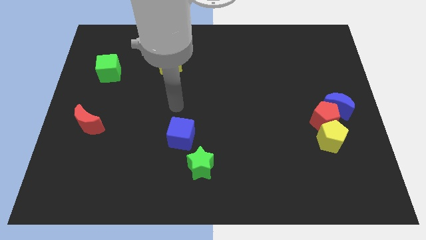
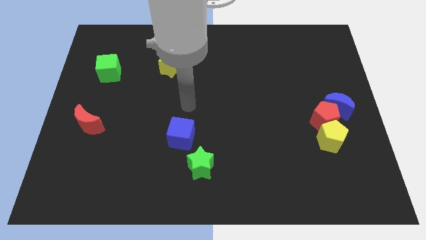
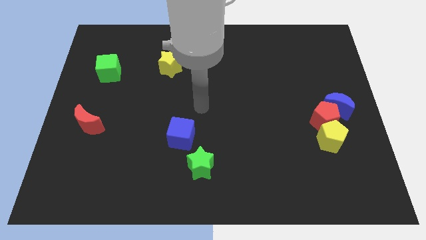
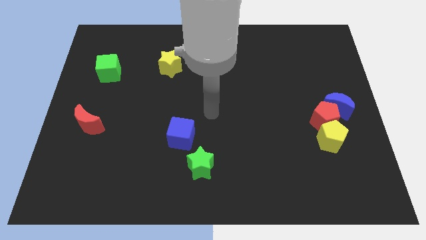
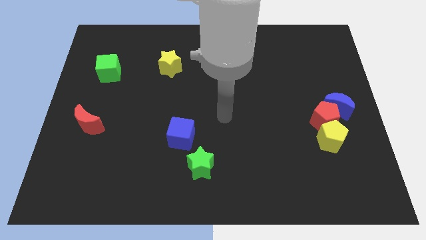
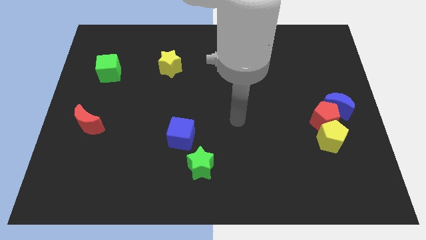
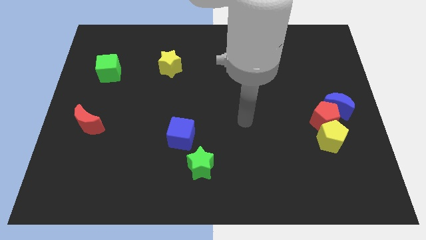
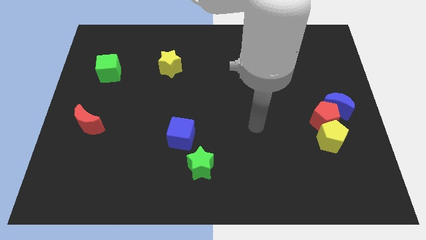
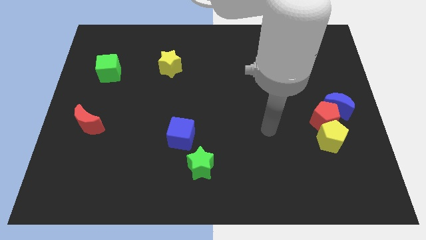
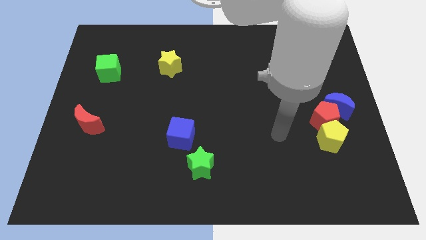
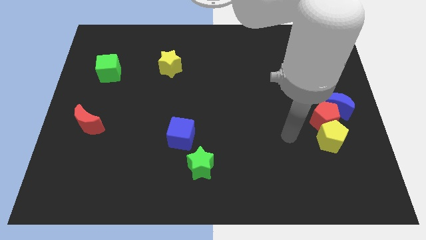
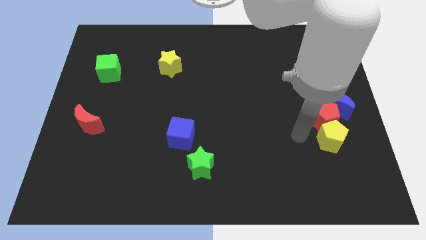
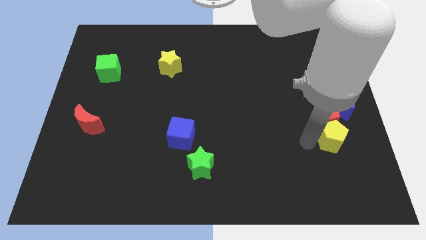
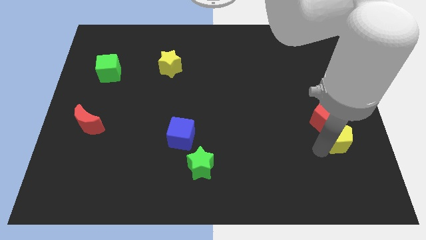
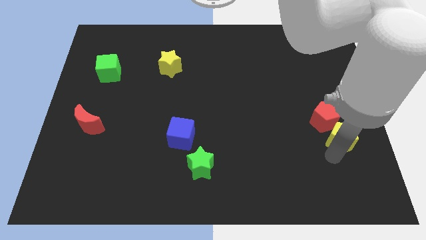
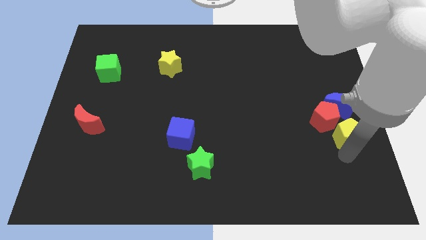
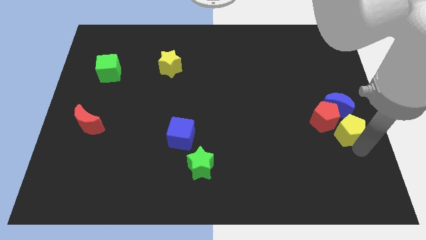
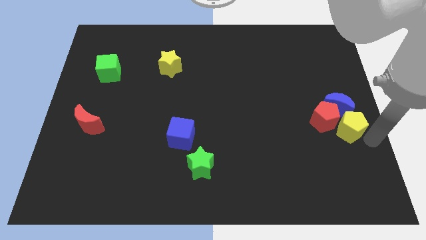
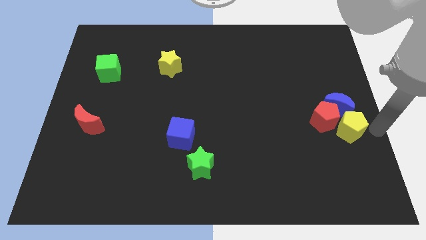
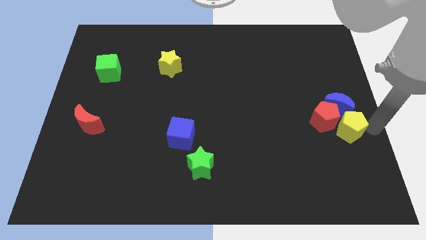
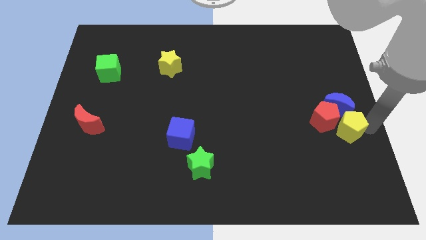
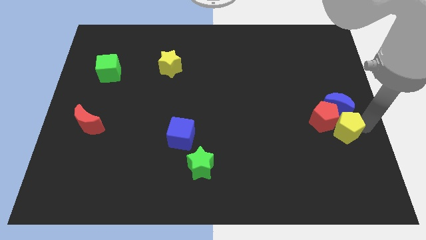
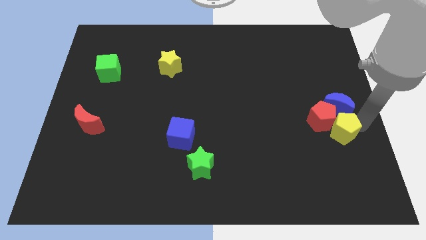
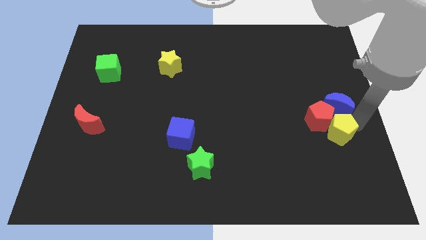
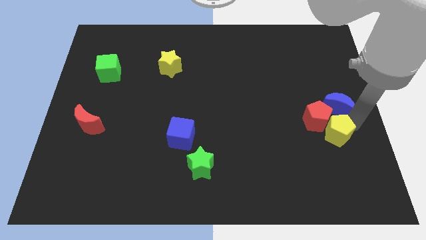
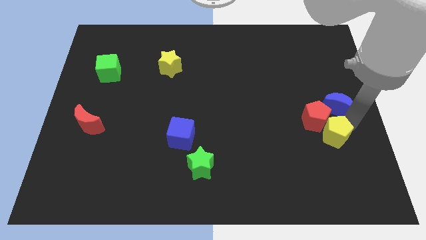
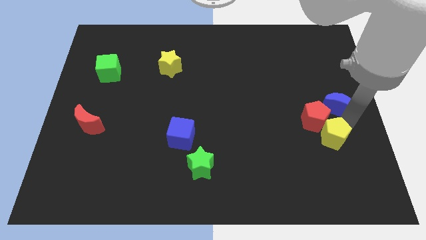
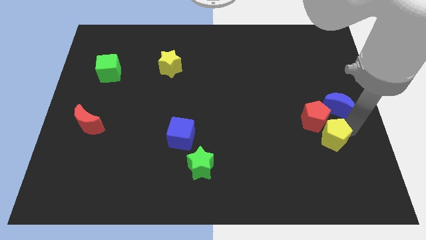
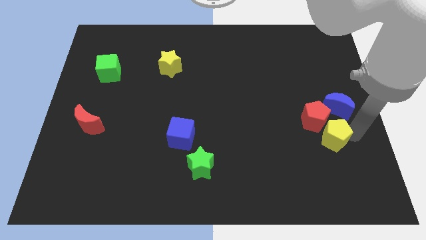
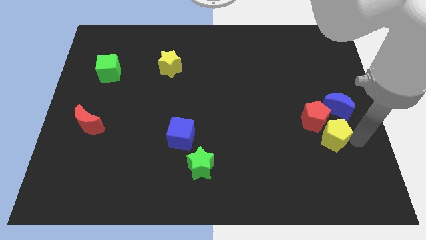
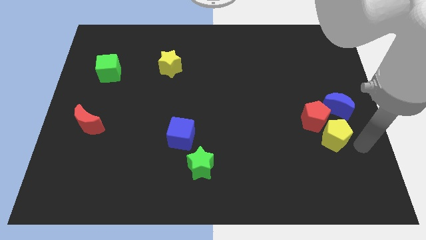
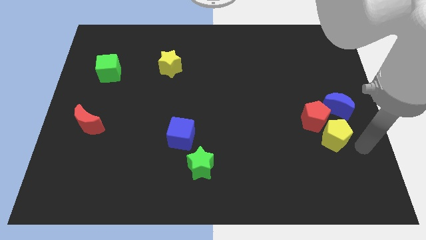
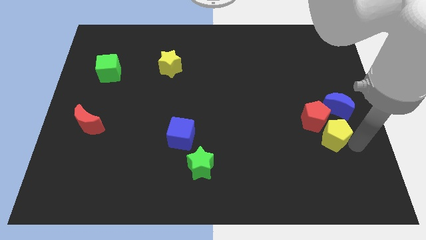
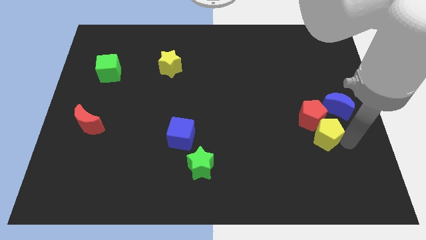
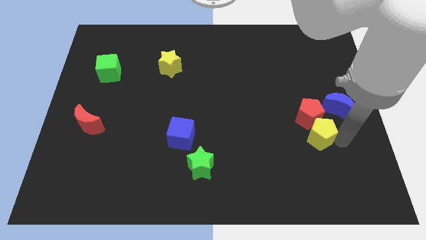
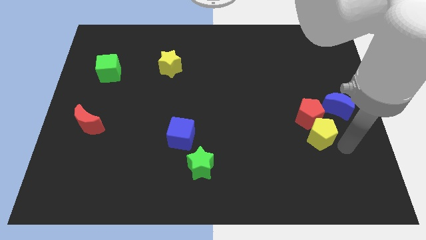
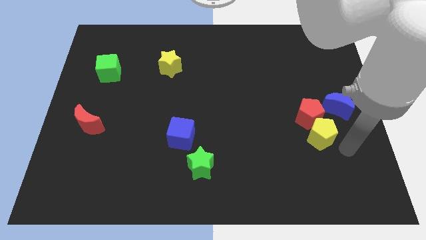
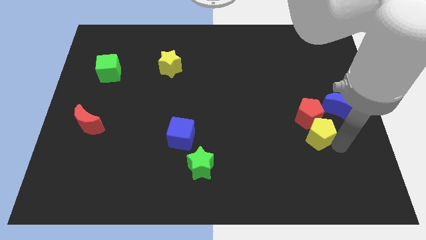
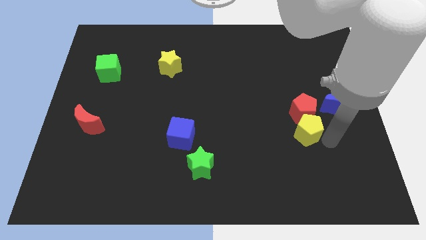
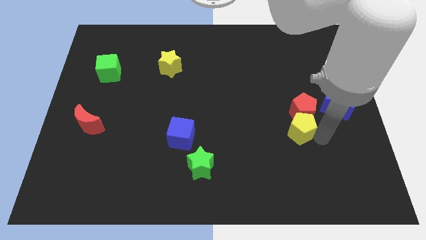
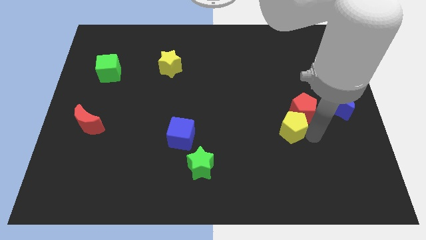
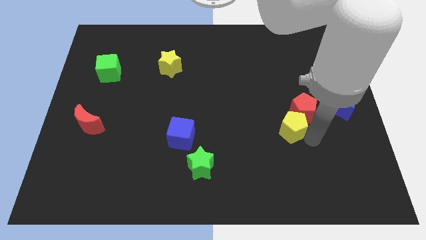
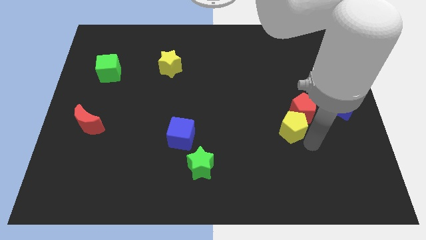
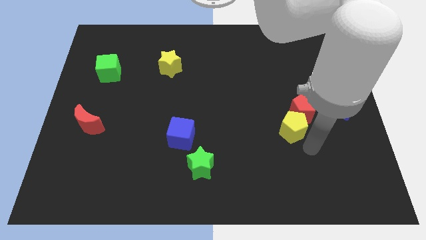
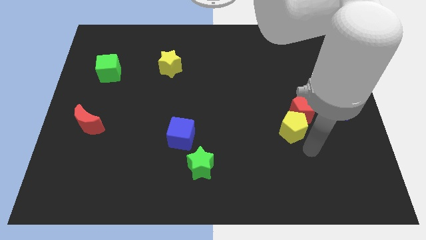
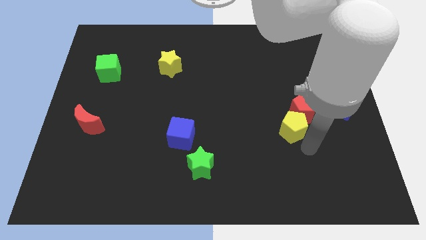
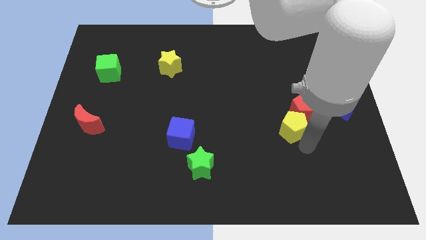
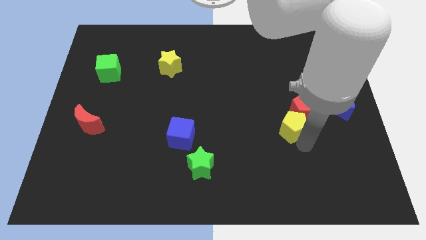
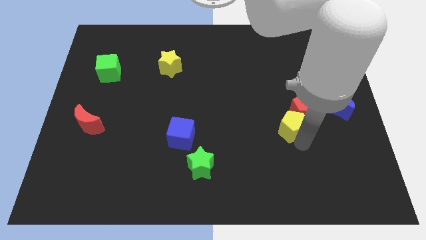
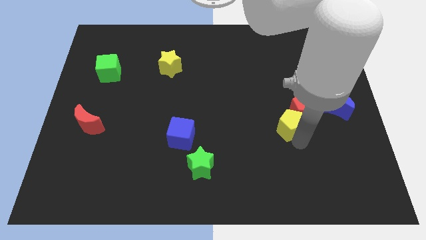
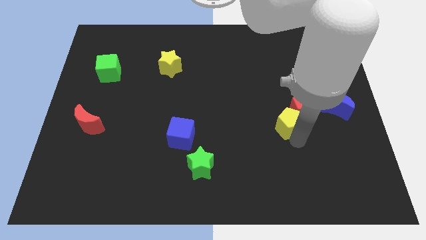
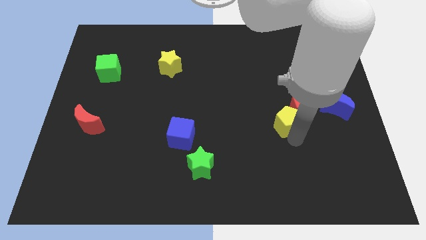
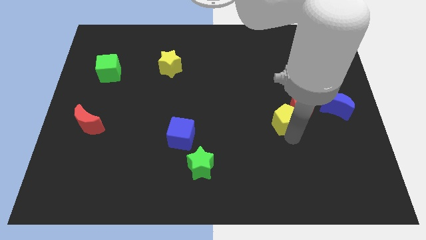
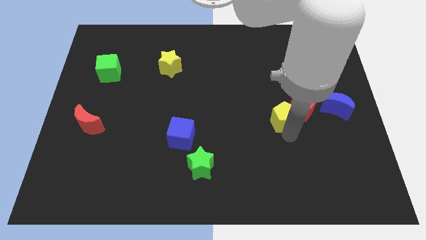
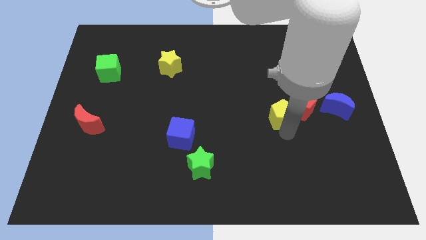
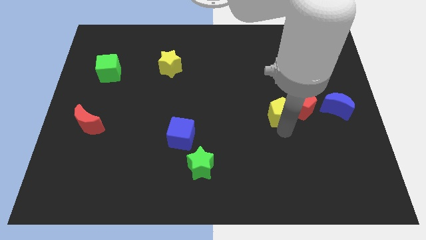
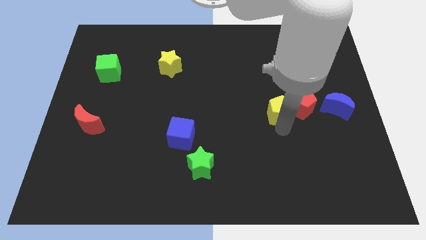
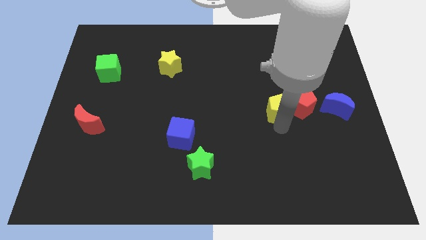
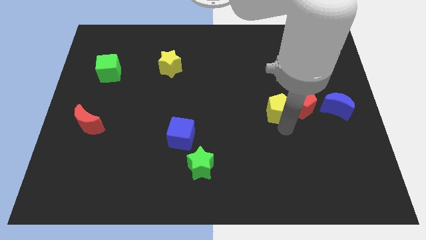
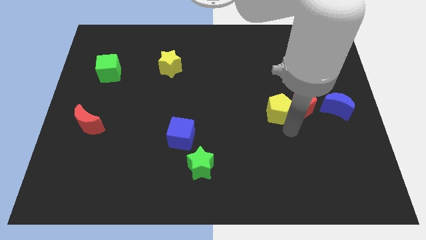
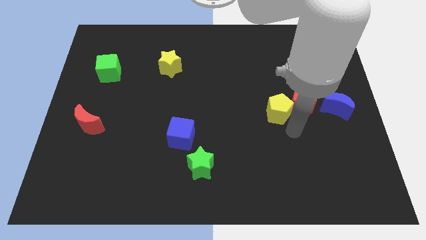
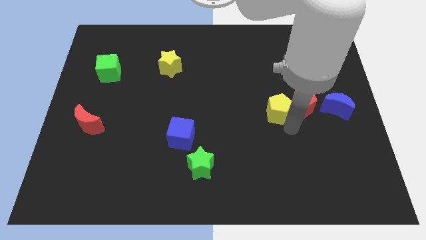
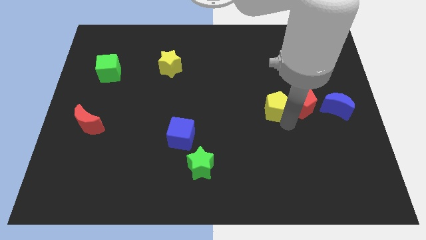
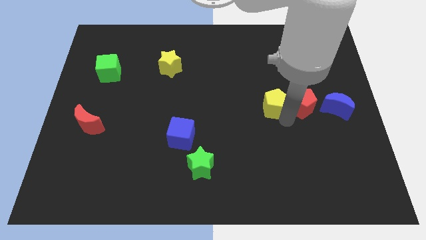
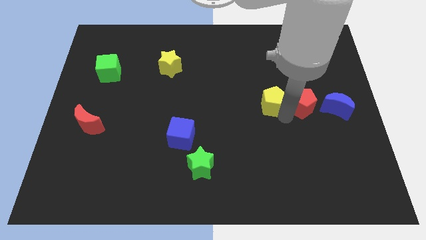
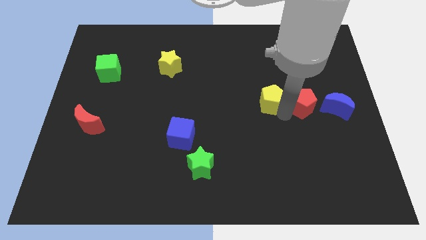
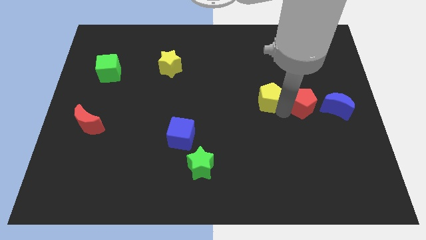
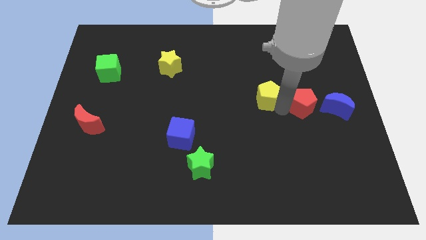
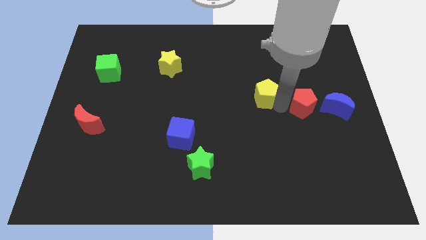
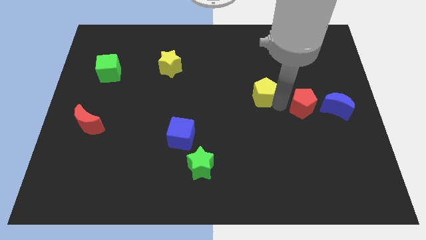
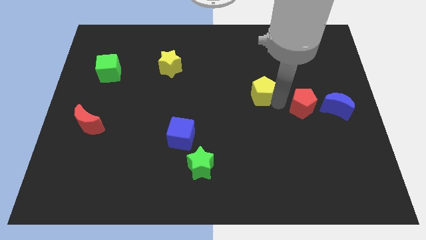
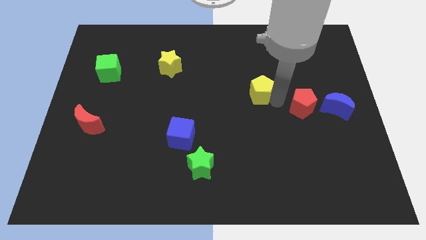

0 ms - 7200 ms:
push the yellow pentagon up and to the left

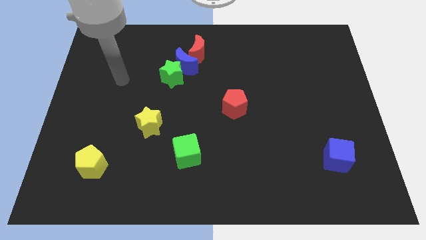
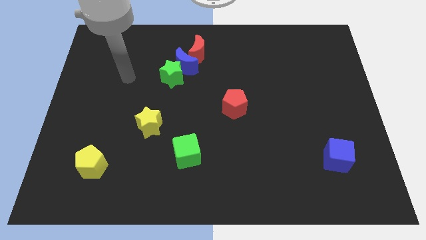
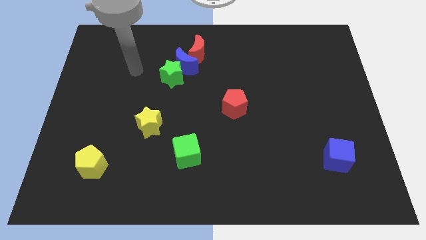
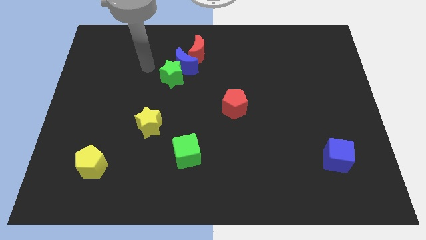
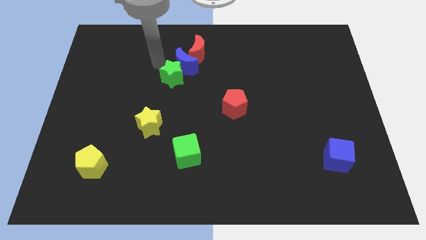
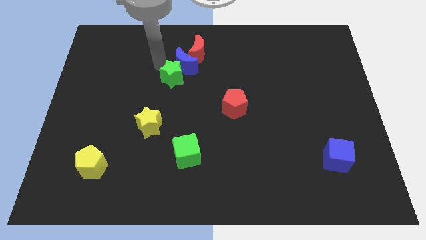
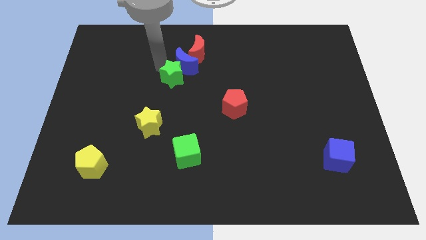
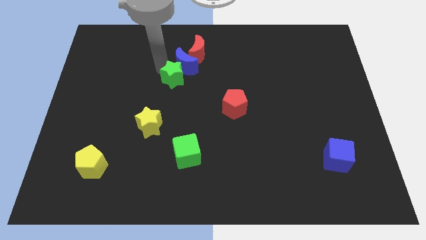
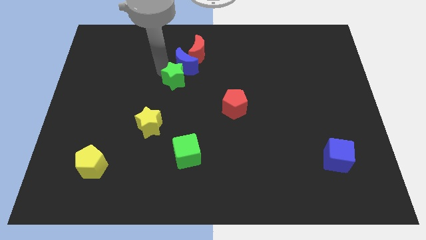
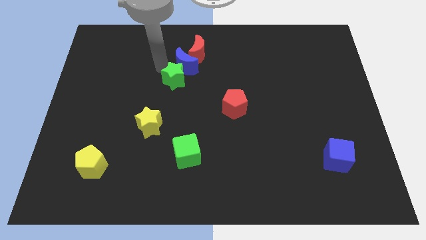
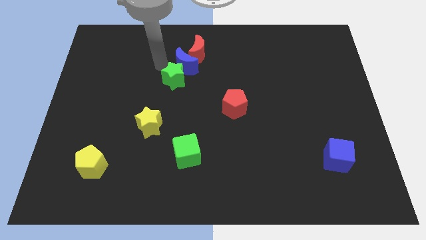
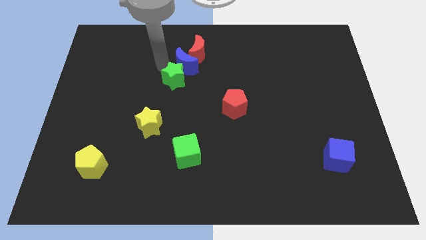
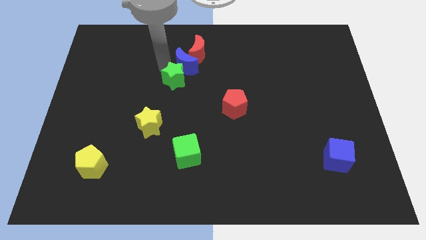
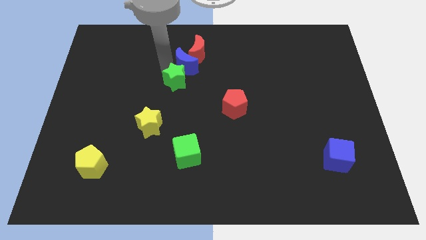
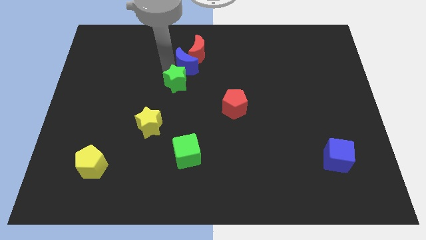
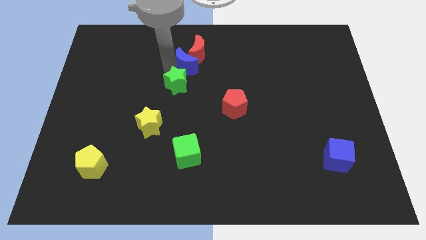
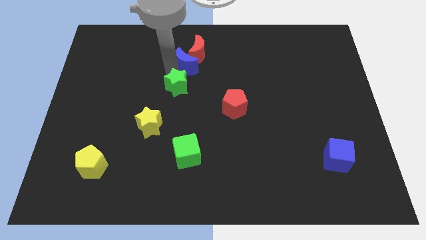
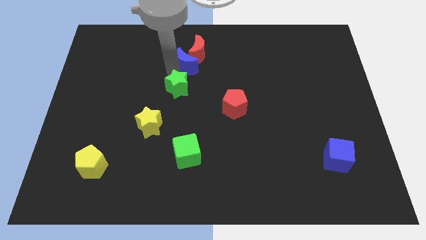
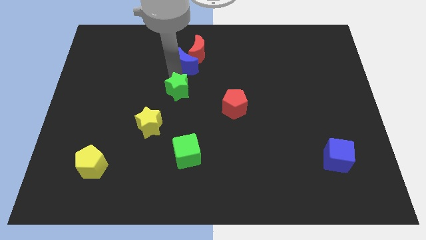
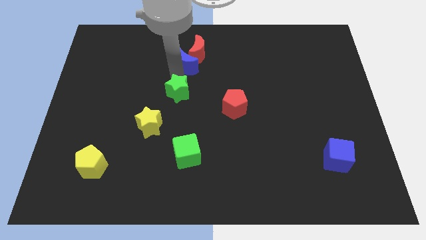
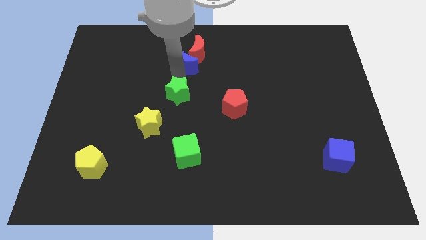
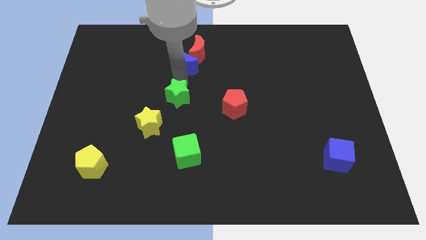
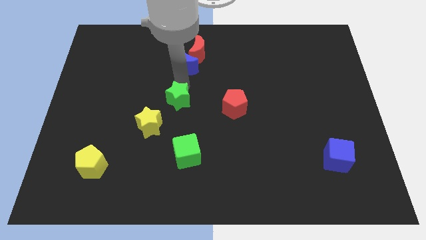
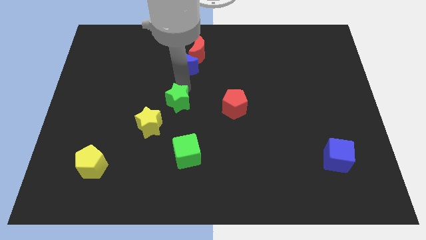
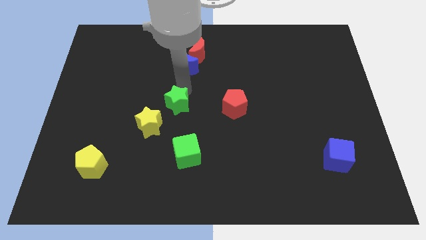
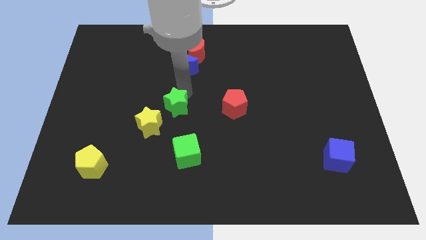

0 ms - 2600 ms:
move the green star slightly diagonally down and to the right
